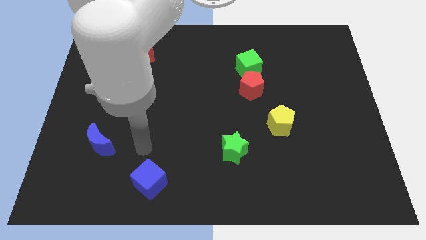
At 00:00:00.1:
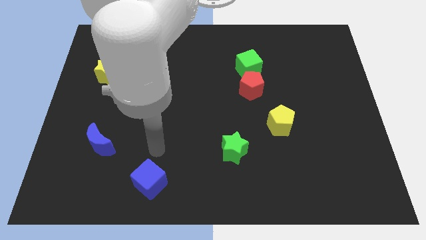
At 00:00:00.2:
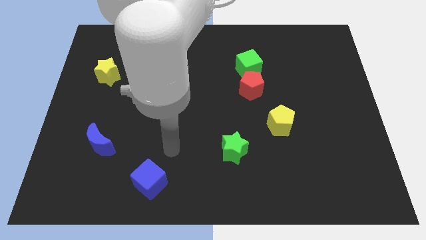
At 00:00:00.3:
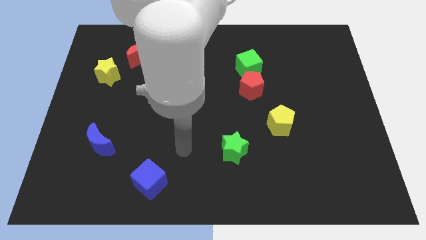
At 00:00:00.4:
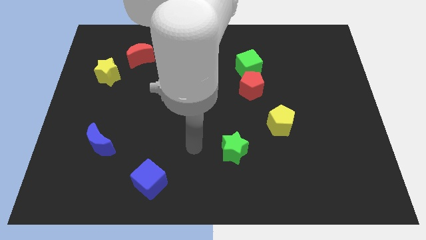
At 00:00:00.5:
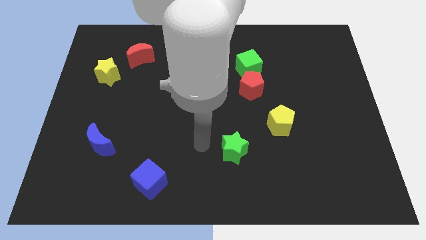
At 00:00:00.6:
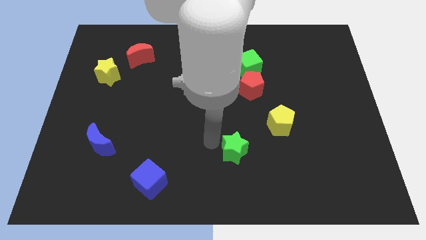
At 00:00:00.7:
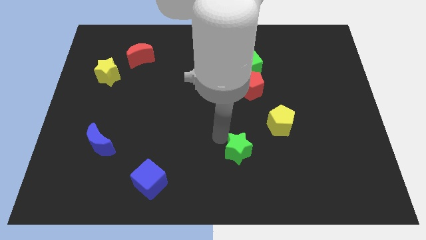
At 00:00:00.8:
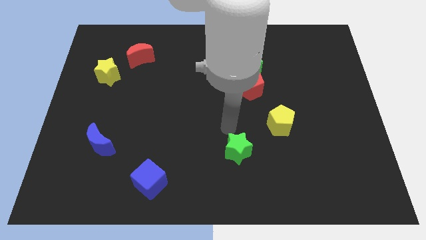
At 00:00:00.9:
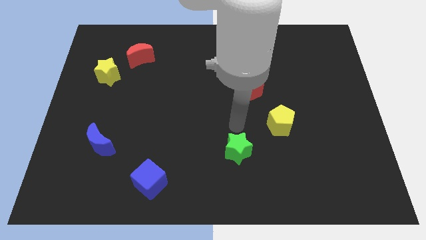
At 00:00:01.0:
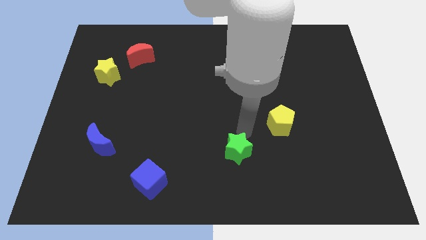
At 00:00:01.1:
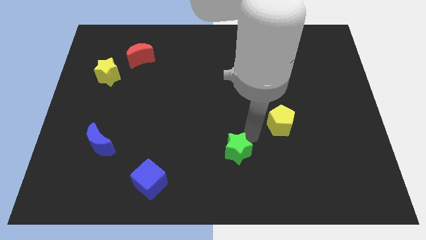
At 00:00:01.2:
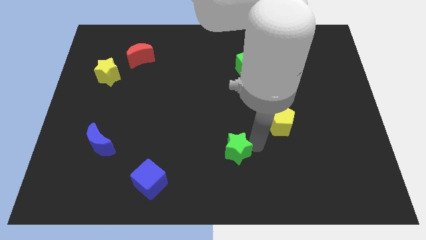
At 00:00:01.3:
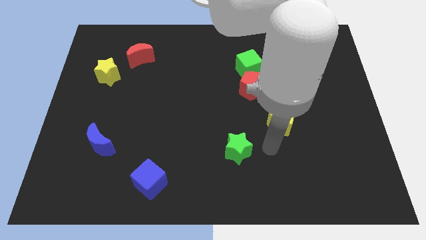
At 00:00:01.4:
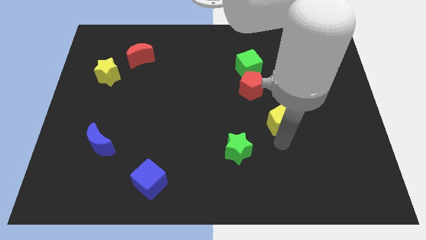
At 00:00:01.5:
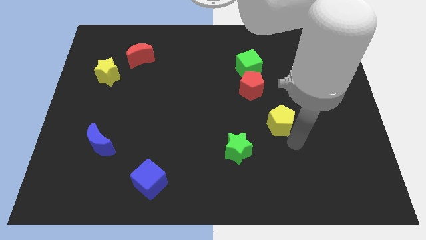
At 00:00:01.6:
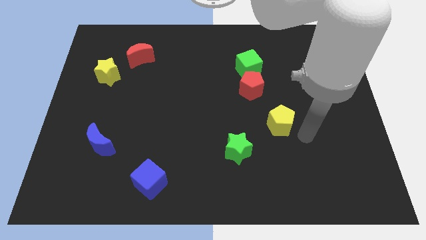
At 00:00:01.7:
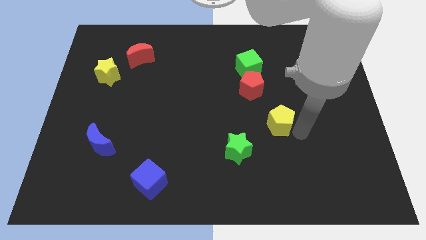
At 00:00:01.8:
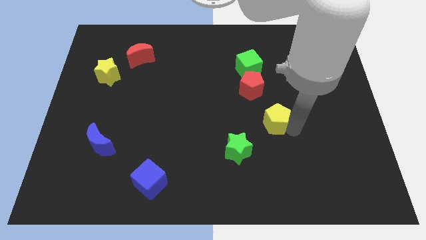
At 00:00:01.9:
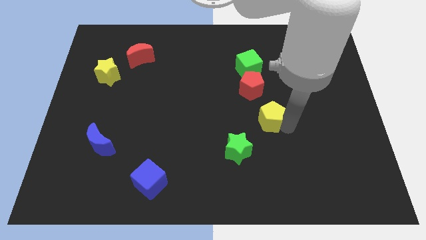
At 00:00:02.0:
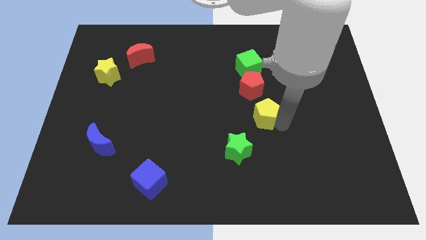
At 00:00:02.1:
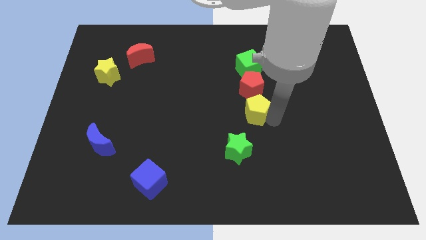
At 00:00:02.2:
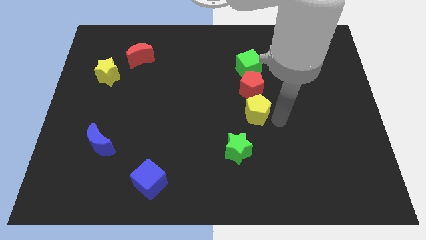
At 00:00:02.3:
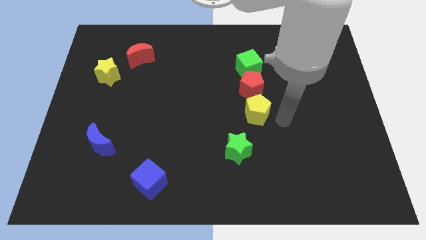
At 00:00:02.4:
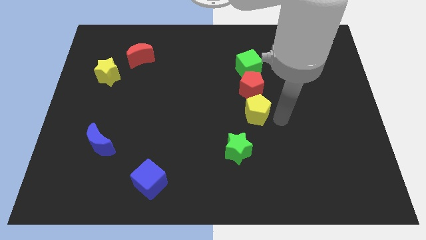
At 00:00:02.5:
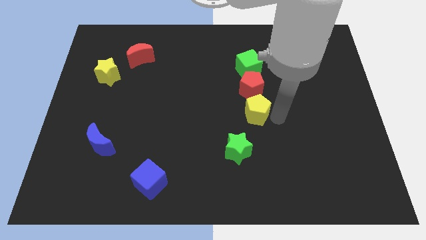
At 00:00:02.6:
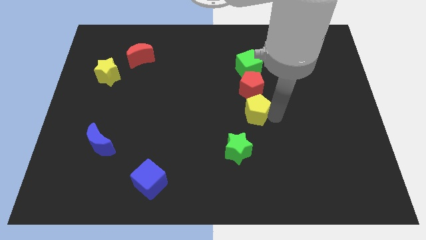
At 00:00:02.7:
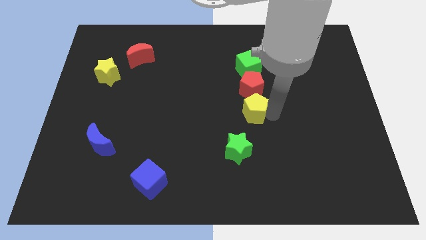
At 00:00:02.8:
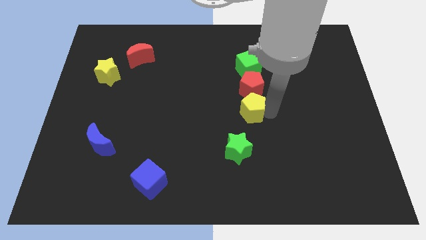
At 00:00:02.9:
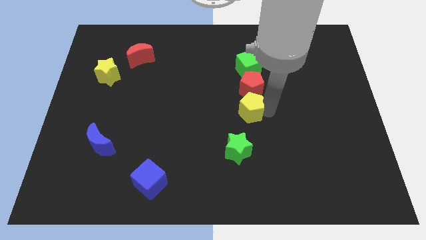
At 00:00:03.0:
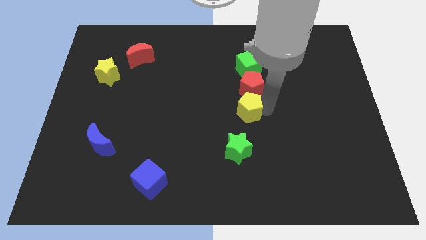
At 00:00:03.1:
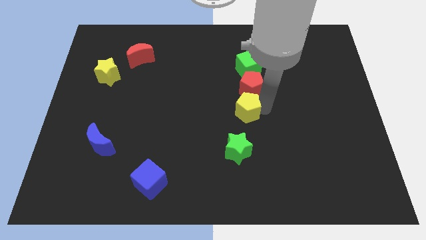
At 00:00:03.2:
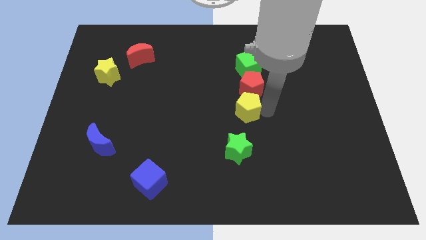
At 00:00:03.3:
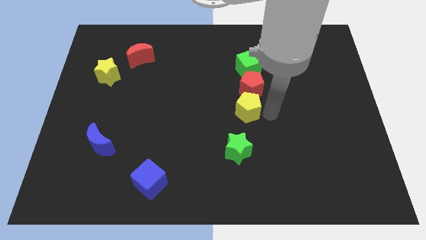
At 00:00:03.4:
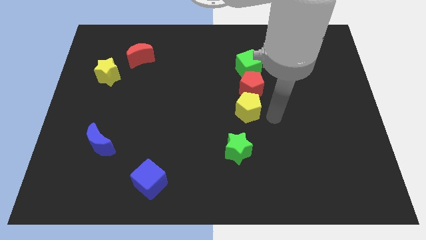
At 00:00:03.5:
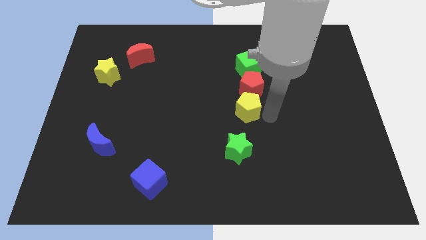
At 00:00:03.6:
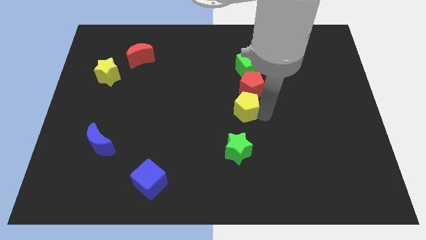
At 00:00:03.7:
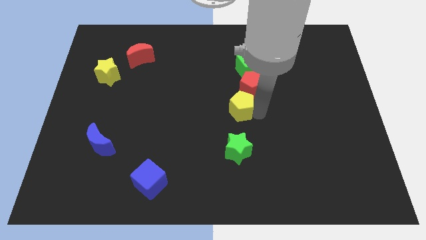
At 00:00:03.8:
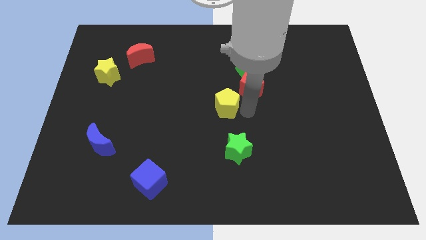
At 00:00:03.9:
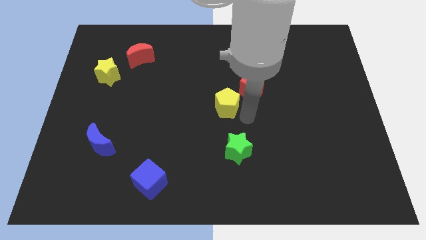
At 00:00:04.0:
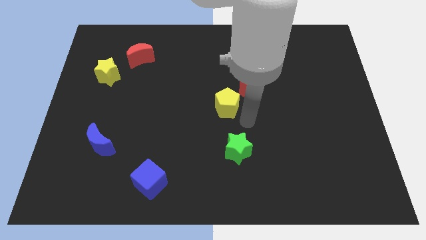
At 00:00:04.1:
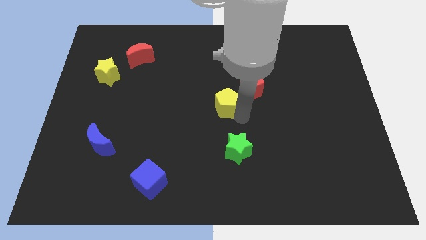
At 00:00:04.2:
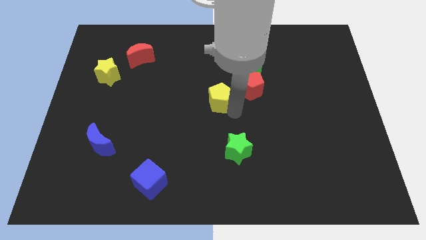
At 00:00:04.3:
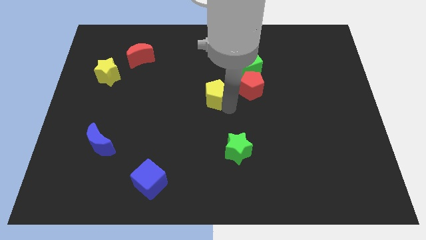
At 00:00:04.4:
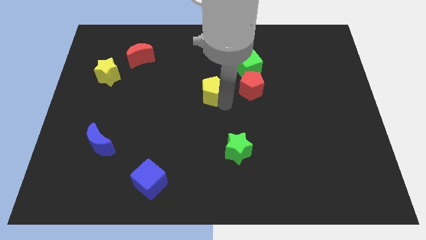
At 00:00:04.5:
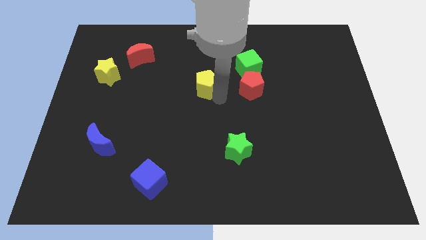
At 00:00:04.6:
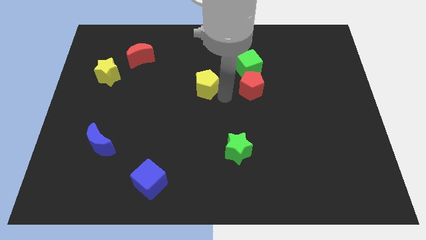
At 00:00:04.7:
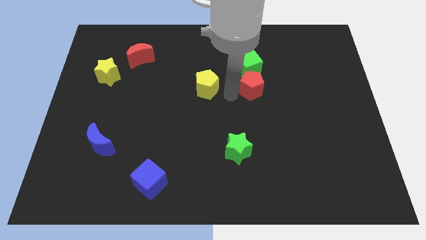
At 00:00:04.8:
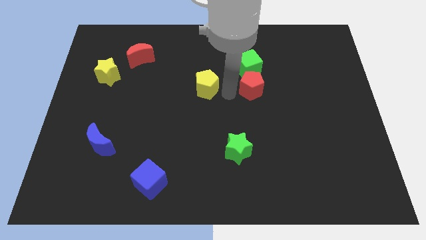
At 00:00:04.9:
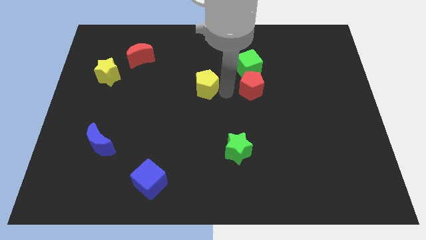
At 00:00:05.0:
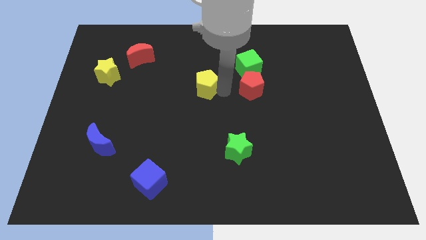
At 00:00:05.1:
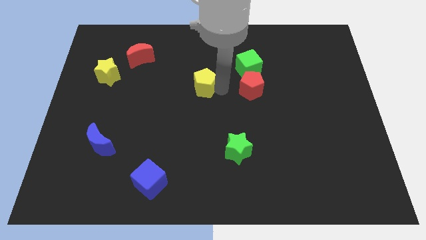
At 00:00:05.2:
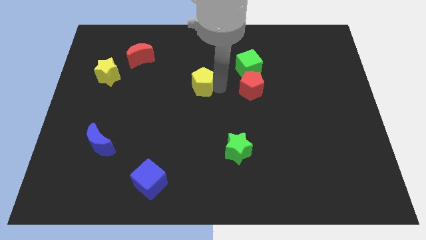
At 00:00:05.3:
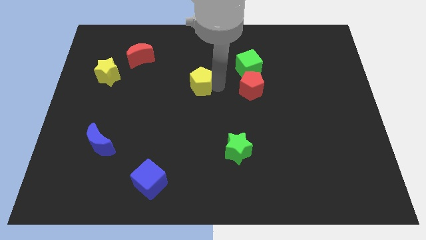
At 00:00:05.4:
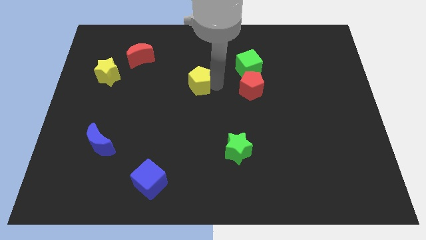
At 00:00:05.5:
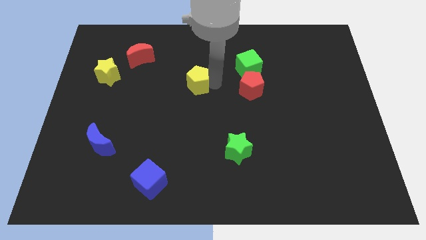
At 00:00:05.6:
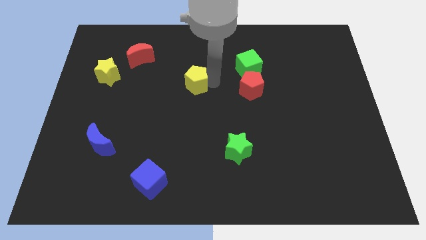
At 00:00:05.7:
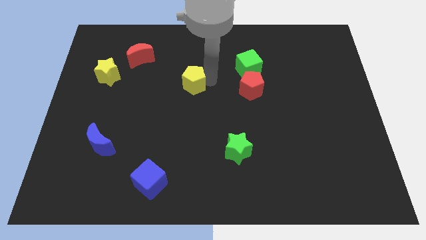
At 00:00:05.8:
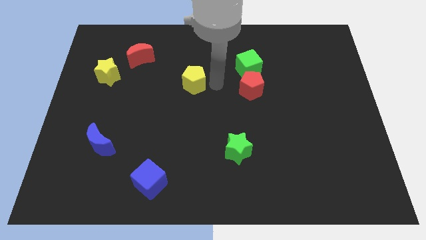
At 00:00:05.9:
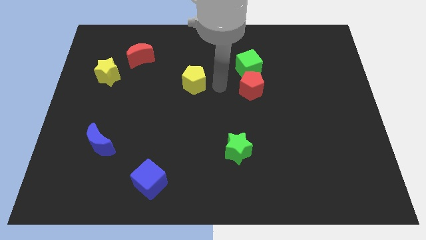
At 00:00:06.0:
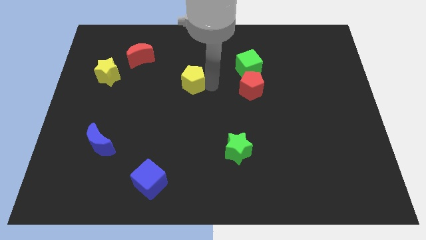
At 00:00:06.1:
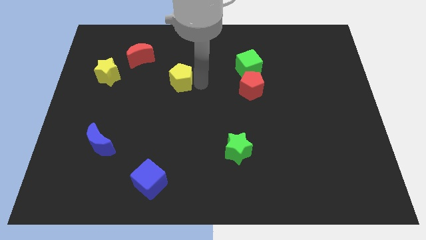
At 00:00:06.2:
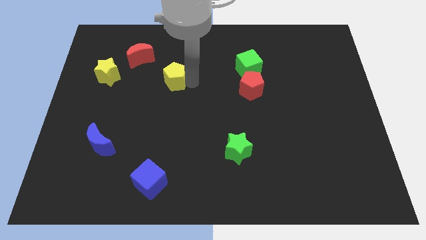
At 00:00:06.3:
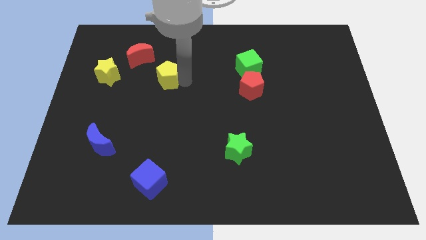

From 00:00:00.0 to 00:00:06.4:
move the yellow pentagon just right of the yellow star

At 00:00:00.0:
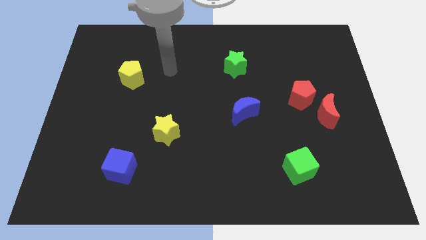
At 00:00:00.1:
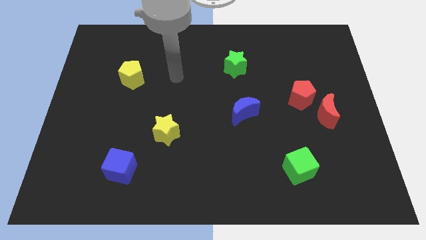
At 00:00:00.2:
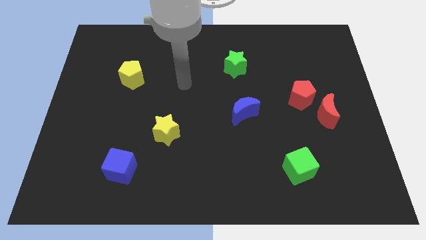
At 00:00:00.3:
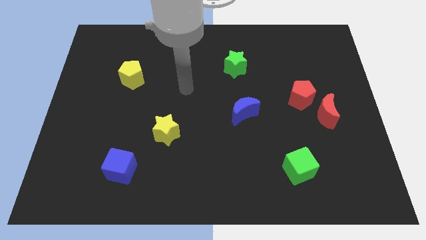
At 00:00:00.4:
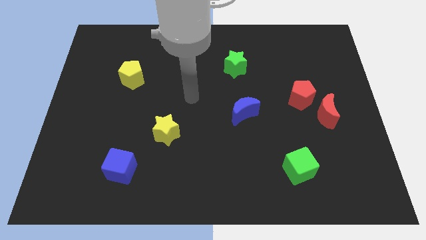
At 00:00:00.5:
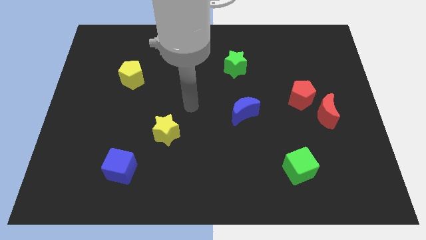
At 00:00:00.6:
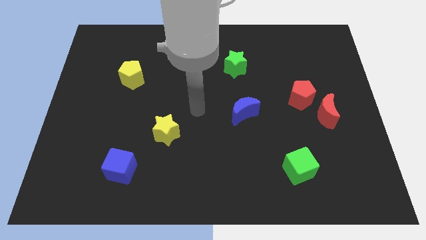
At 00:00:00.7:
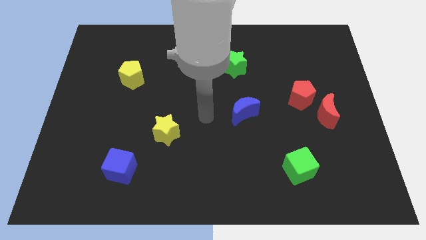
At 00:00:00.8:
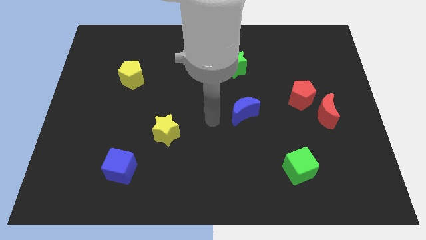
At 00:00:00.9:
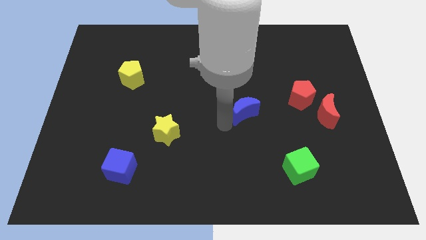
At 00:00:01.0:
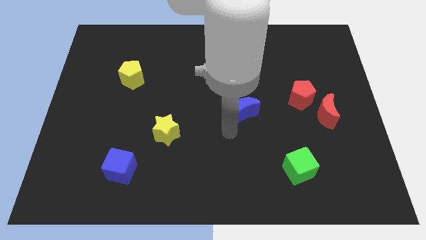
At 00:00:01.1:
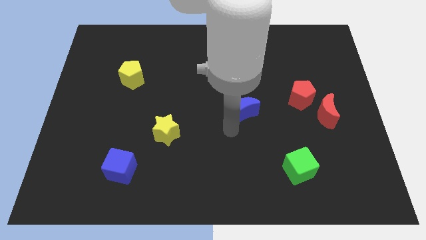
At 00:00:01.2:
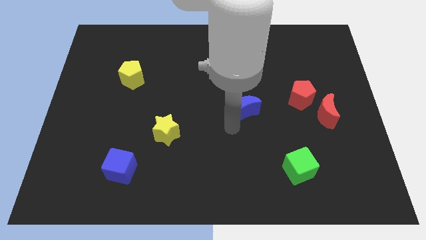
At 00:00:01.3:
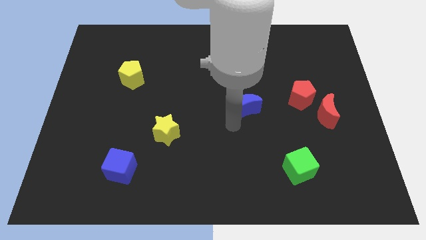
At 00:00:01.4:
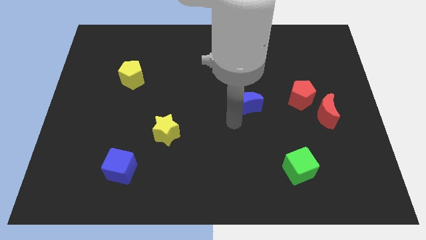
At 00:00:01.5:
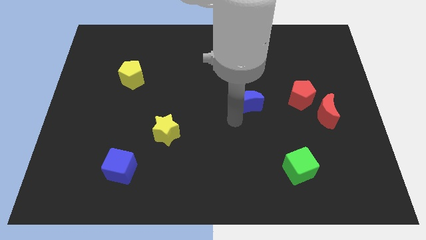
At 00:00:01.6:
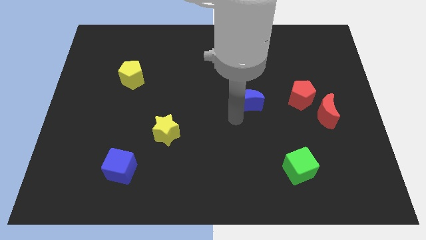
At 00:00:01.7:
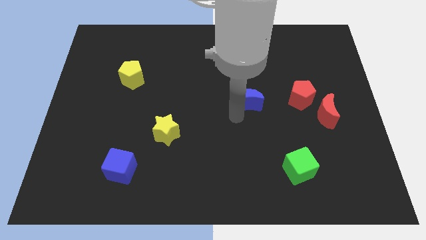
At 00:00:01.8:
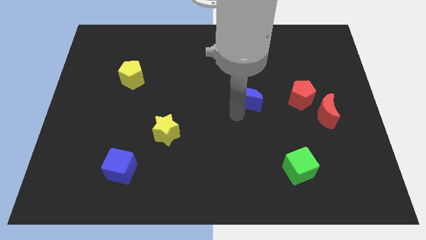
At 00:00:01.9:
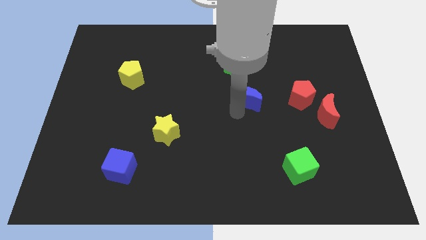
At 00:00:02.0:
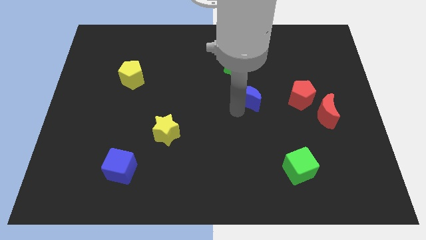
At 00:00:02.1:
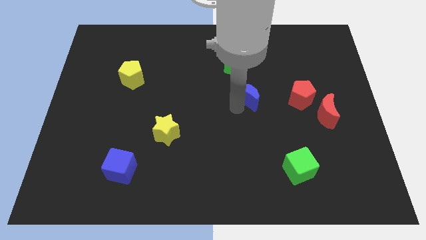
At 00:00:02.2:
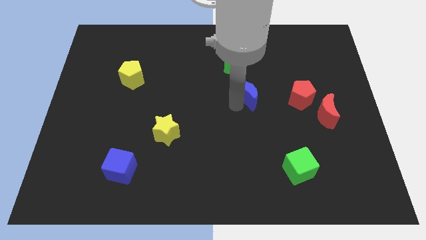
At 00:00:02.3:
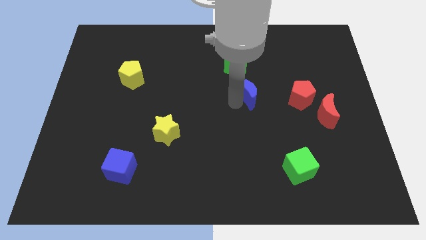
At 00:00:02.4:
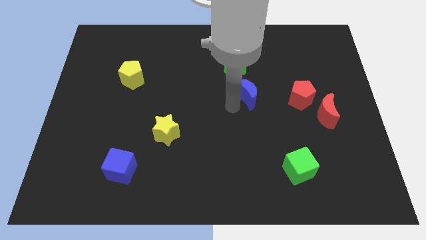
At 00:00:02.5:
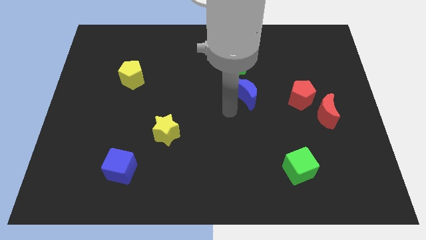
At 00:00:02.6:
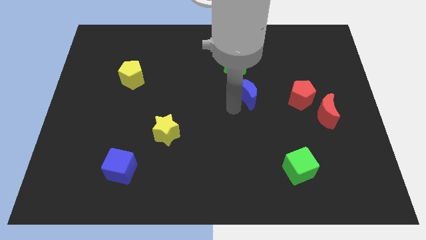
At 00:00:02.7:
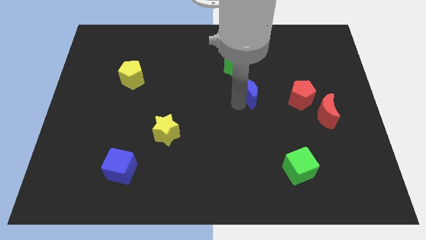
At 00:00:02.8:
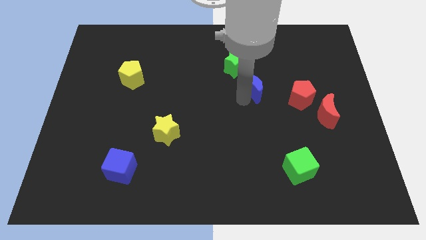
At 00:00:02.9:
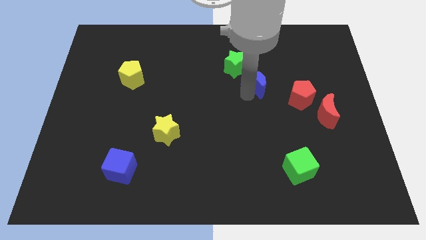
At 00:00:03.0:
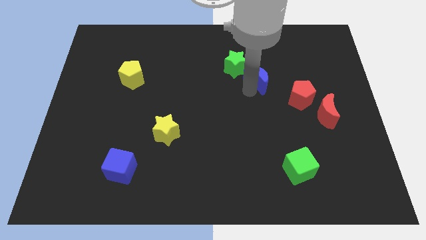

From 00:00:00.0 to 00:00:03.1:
put the blue moon right of the green star
